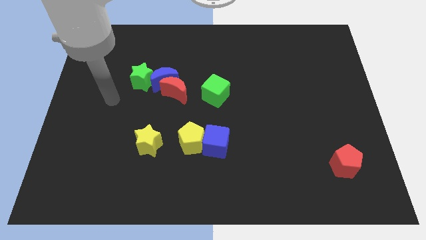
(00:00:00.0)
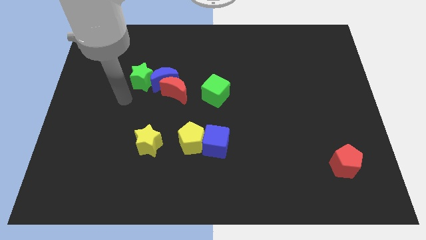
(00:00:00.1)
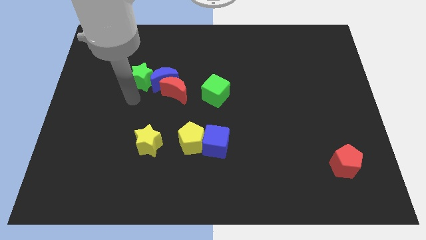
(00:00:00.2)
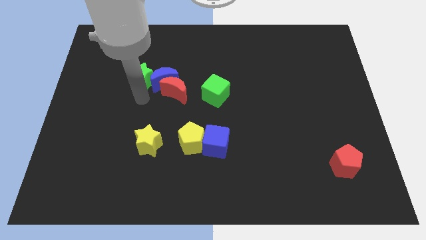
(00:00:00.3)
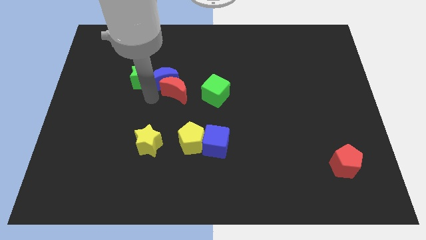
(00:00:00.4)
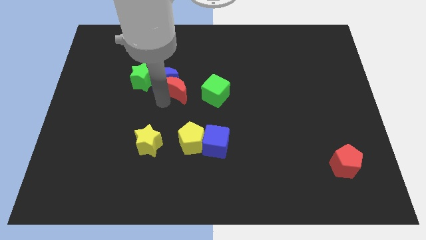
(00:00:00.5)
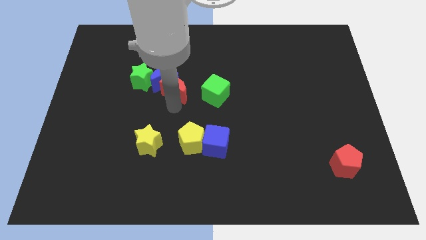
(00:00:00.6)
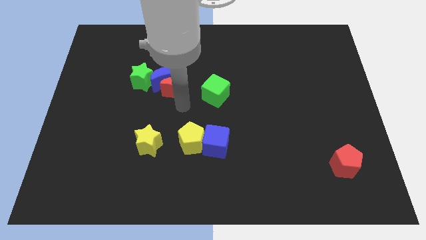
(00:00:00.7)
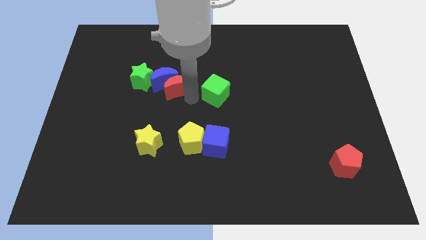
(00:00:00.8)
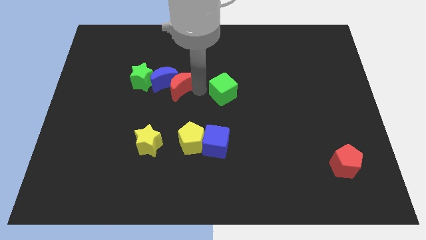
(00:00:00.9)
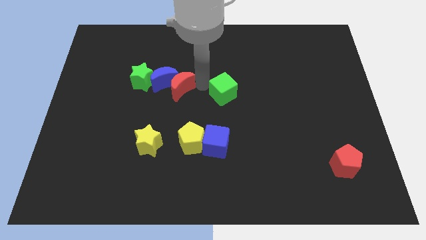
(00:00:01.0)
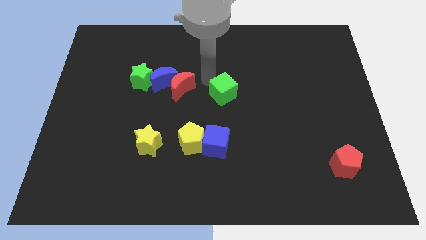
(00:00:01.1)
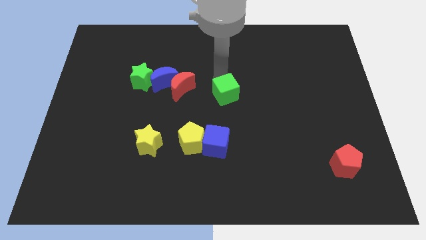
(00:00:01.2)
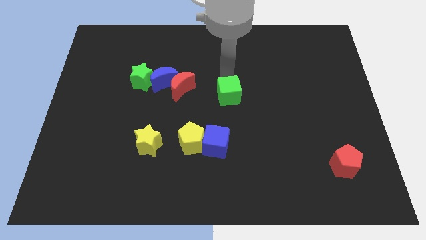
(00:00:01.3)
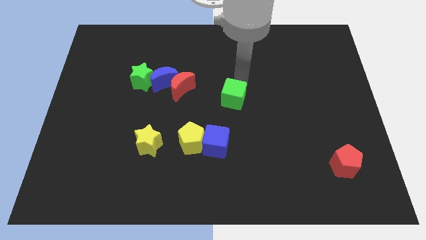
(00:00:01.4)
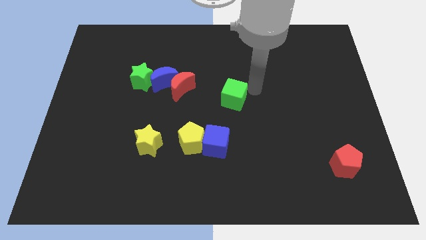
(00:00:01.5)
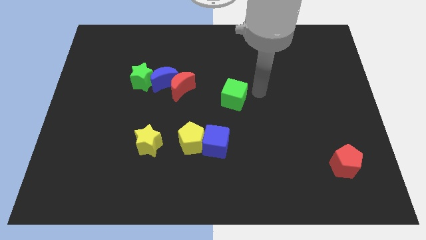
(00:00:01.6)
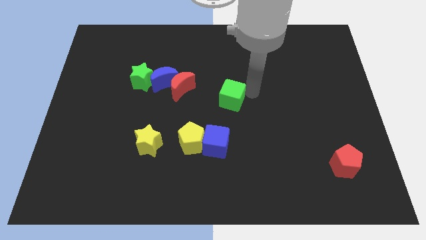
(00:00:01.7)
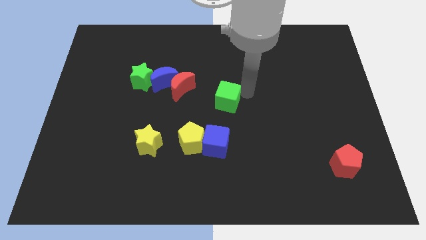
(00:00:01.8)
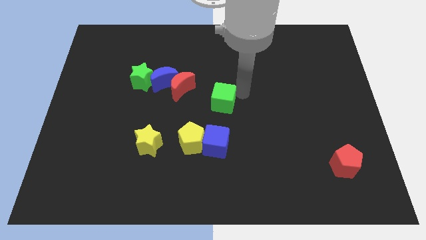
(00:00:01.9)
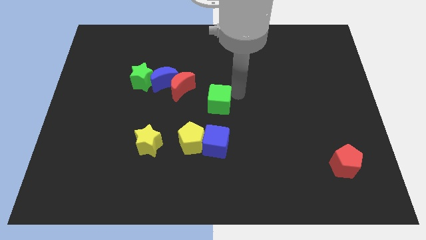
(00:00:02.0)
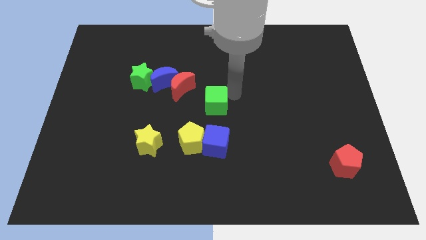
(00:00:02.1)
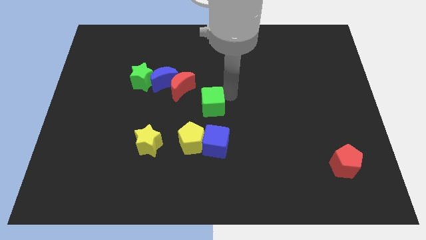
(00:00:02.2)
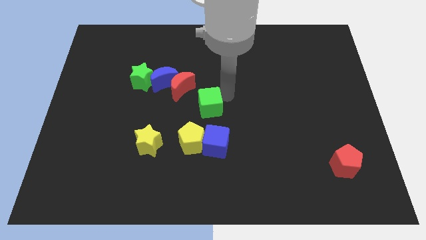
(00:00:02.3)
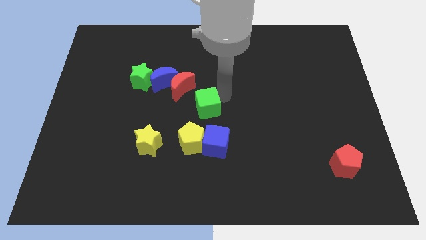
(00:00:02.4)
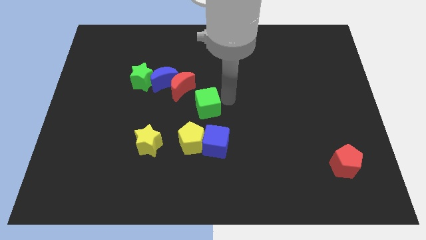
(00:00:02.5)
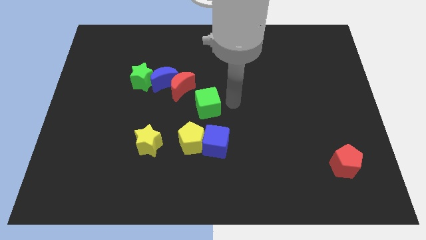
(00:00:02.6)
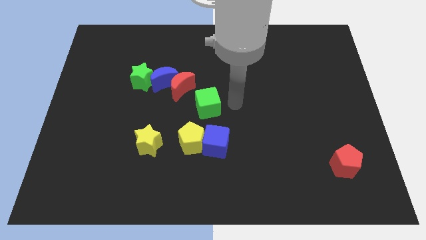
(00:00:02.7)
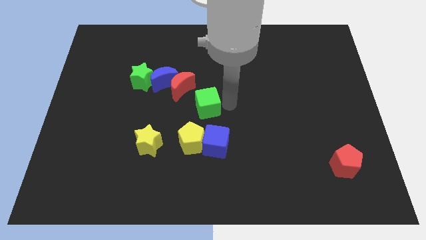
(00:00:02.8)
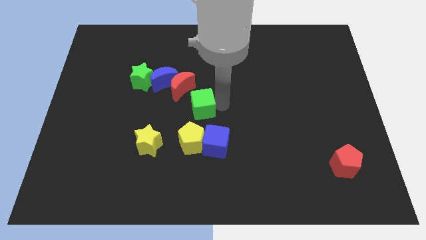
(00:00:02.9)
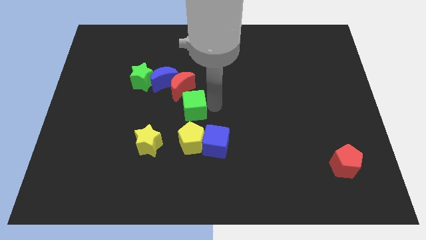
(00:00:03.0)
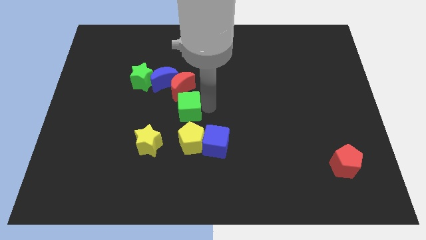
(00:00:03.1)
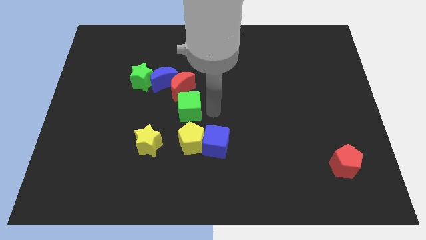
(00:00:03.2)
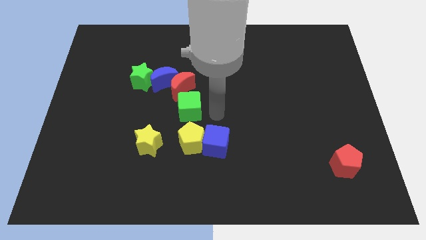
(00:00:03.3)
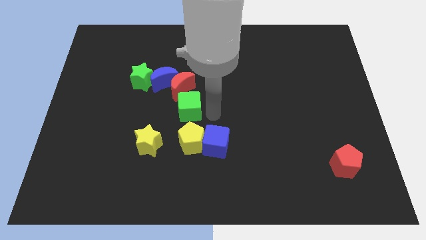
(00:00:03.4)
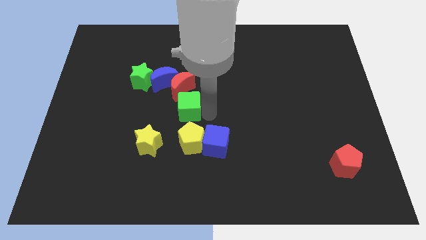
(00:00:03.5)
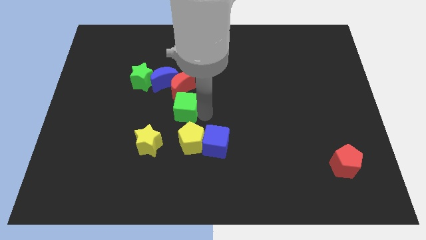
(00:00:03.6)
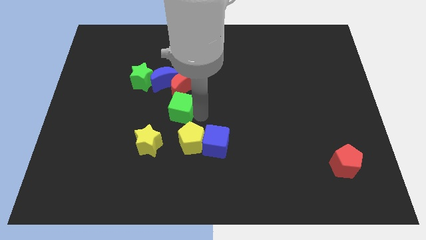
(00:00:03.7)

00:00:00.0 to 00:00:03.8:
move the green cube a little left

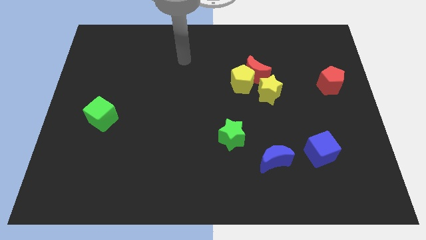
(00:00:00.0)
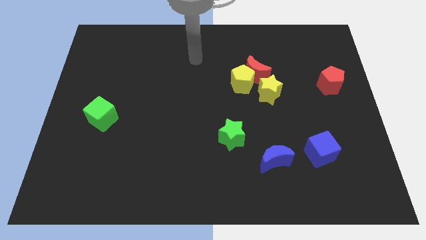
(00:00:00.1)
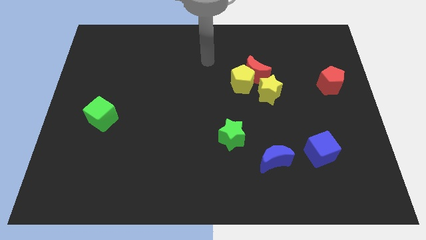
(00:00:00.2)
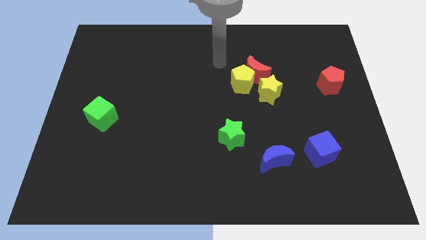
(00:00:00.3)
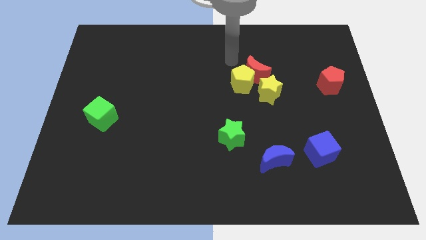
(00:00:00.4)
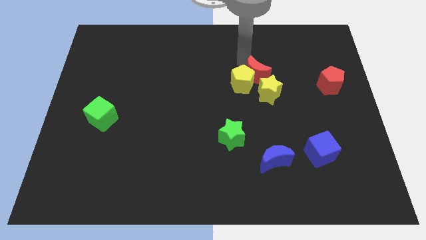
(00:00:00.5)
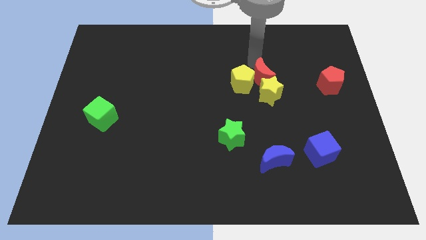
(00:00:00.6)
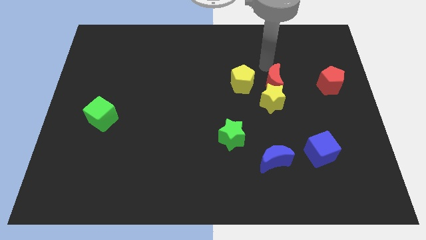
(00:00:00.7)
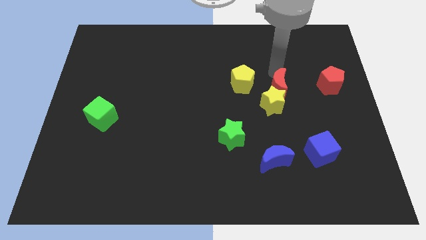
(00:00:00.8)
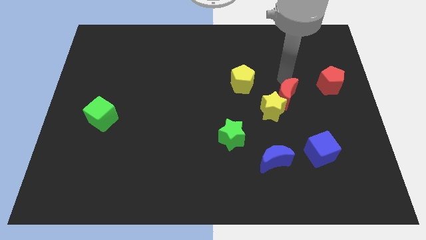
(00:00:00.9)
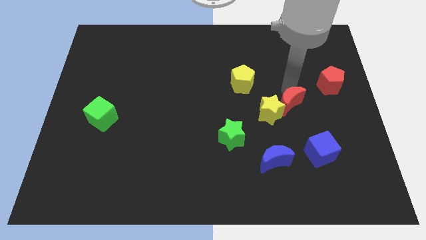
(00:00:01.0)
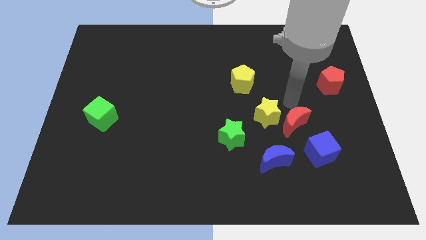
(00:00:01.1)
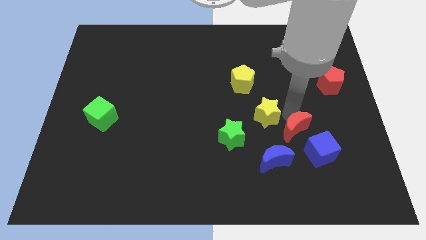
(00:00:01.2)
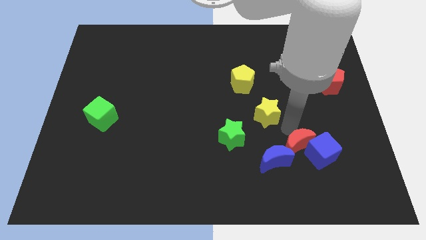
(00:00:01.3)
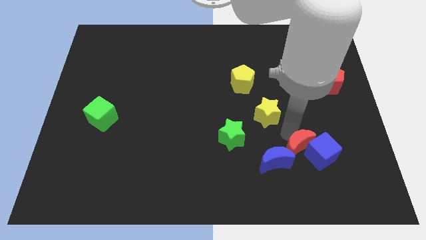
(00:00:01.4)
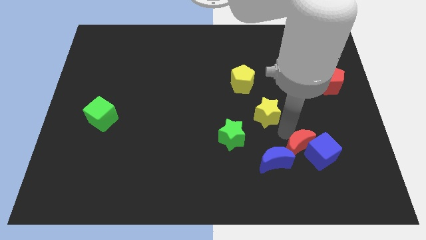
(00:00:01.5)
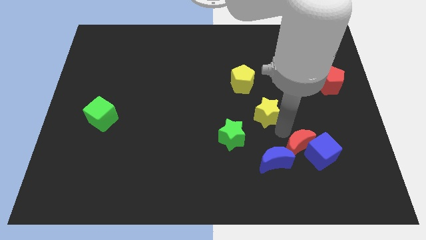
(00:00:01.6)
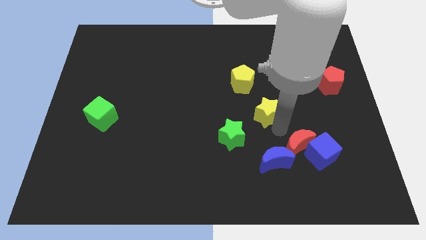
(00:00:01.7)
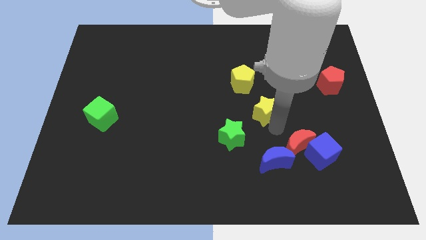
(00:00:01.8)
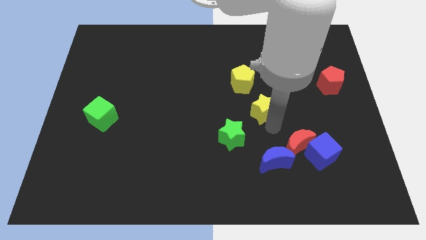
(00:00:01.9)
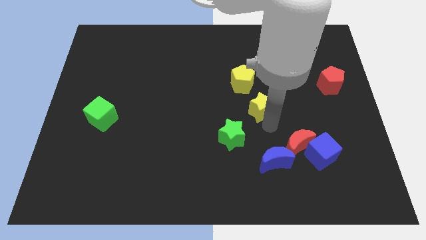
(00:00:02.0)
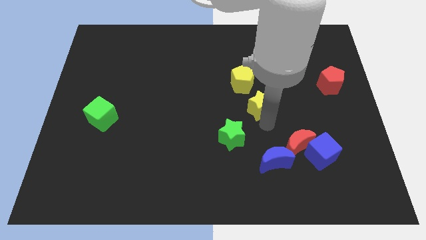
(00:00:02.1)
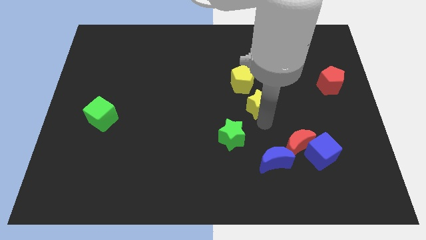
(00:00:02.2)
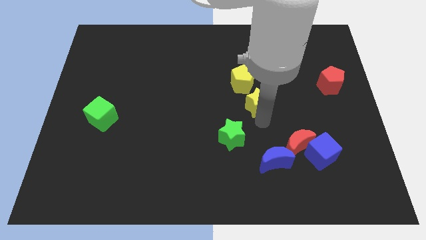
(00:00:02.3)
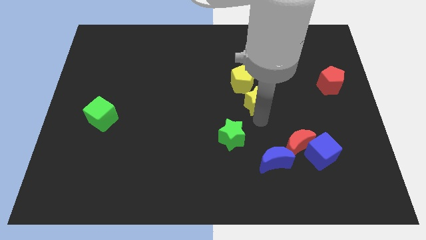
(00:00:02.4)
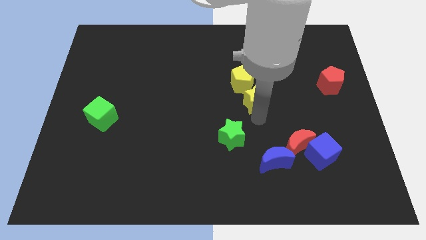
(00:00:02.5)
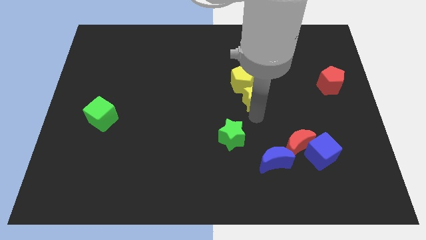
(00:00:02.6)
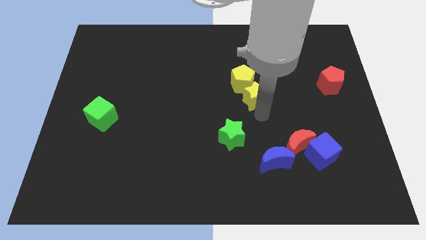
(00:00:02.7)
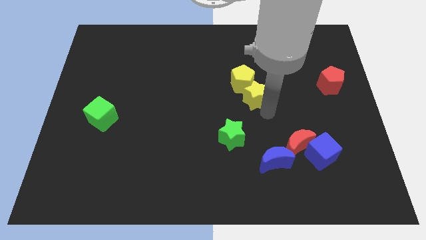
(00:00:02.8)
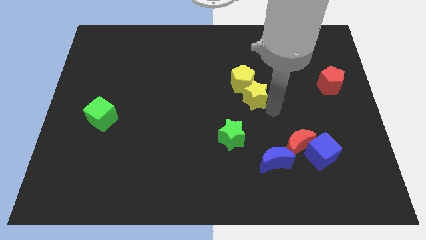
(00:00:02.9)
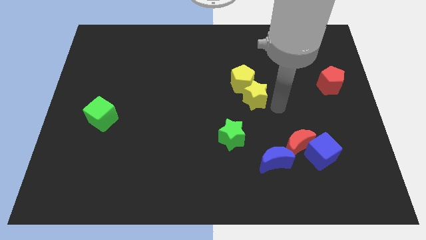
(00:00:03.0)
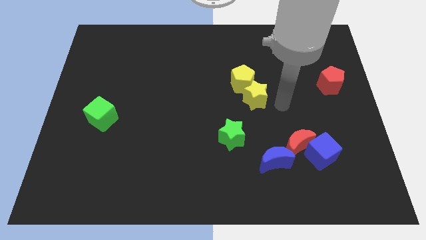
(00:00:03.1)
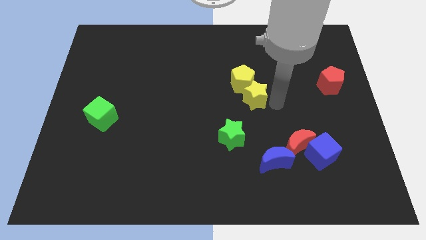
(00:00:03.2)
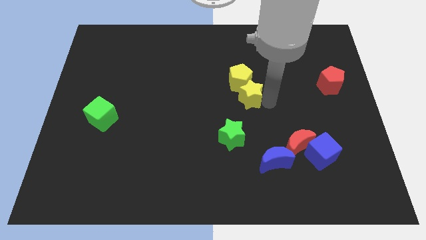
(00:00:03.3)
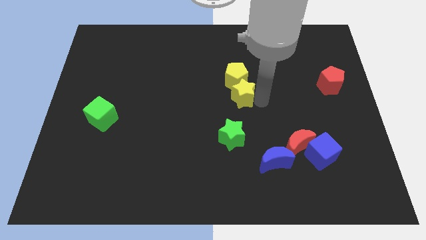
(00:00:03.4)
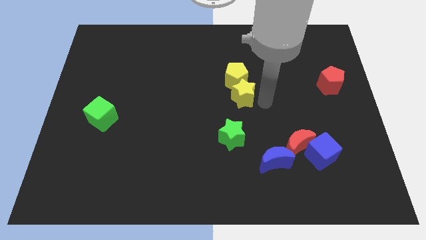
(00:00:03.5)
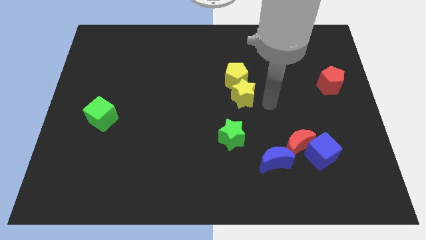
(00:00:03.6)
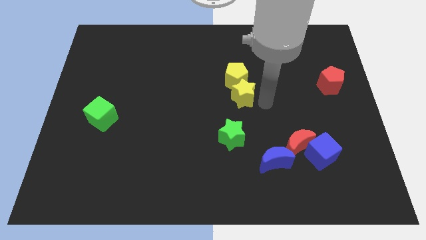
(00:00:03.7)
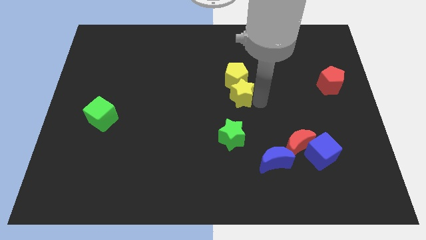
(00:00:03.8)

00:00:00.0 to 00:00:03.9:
push the yellow star left a little bit
